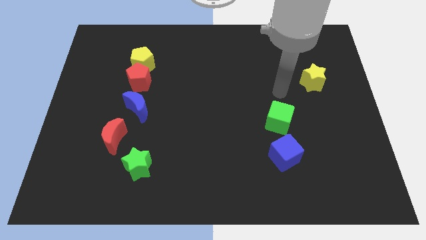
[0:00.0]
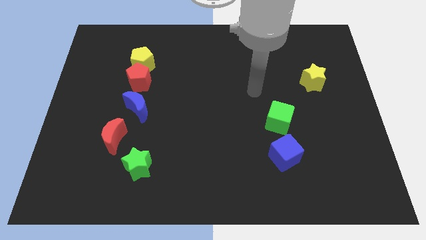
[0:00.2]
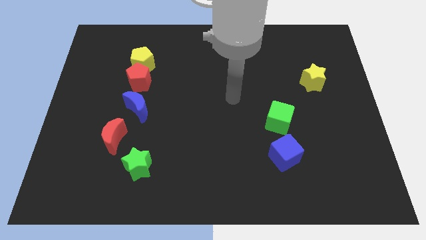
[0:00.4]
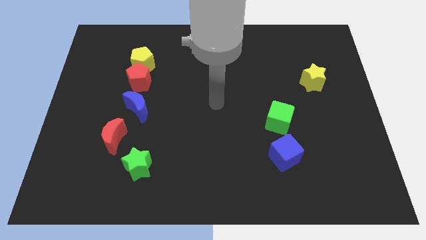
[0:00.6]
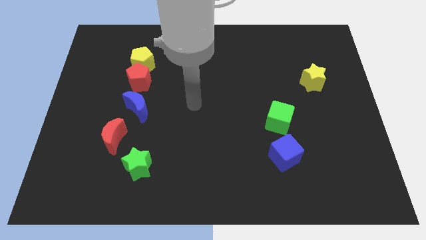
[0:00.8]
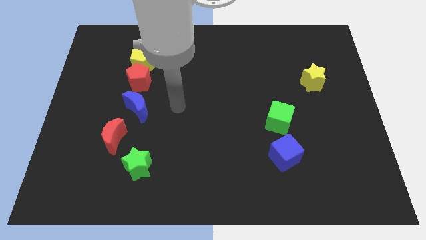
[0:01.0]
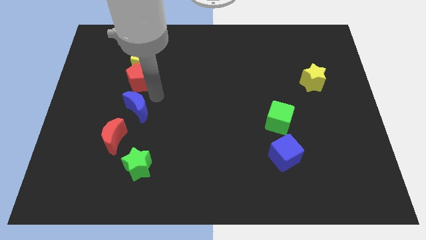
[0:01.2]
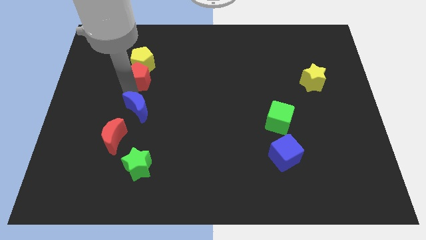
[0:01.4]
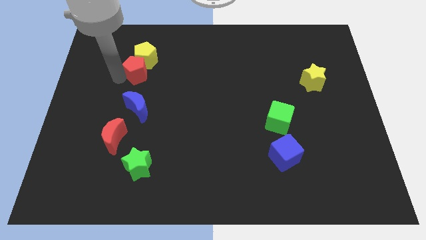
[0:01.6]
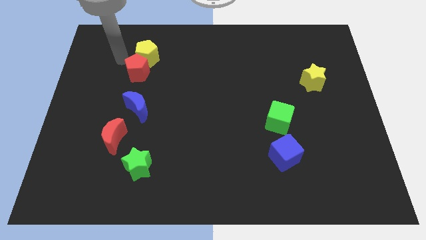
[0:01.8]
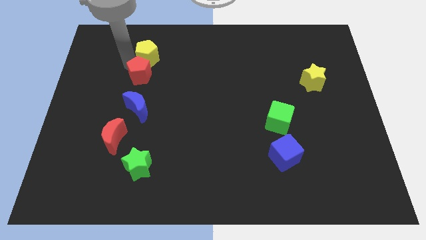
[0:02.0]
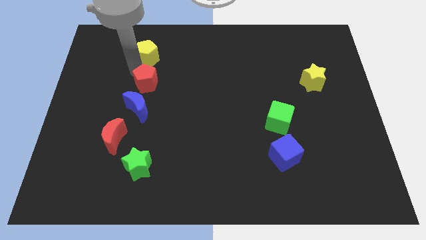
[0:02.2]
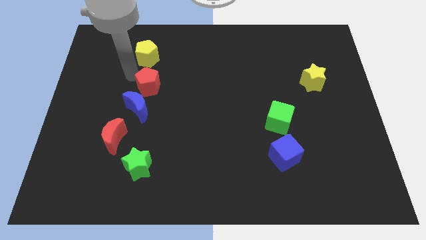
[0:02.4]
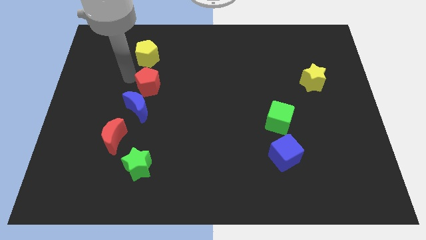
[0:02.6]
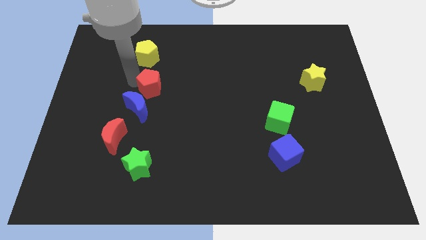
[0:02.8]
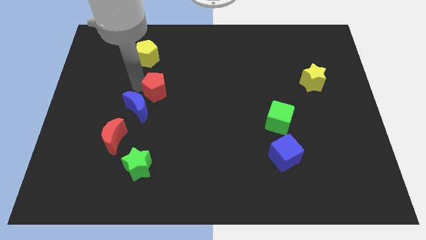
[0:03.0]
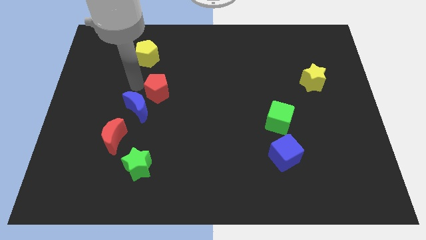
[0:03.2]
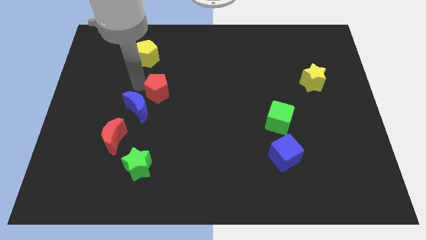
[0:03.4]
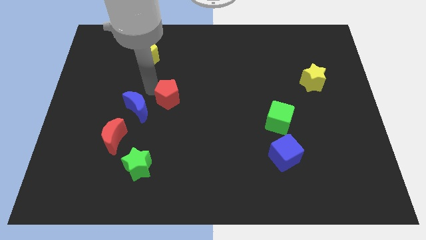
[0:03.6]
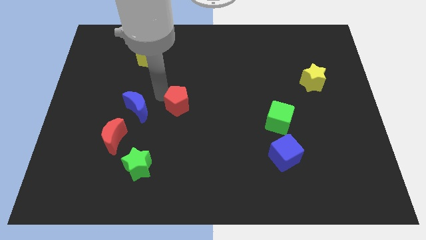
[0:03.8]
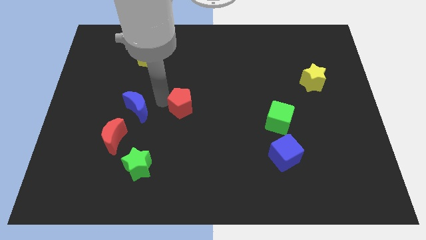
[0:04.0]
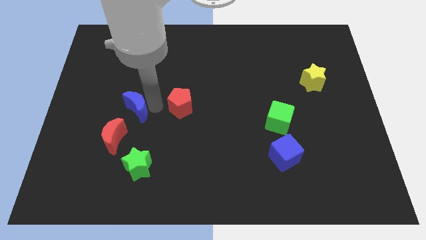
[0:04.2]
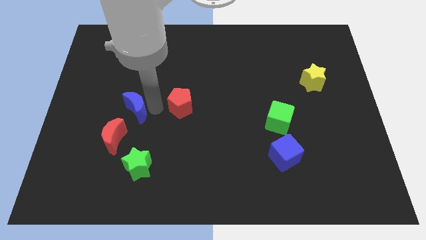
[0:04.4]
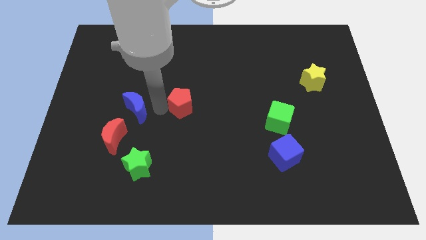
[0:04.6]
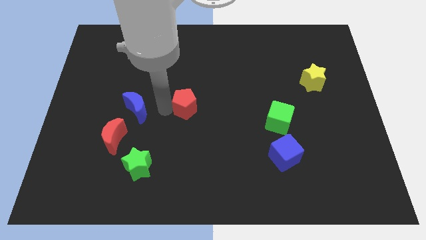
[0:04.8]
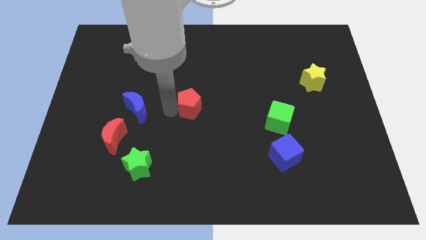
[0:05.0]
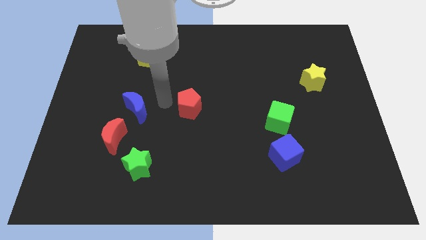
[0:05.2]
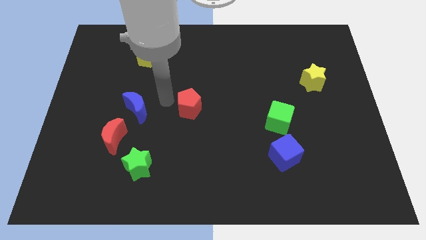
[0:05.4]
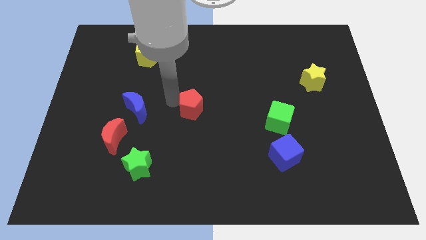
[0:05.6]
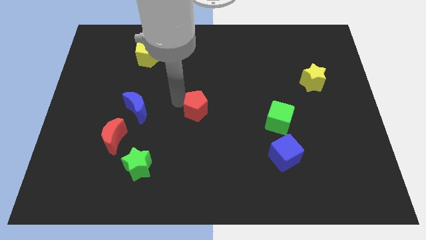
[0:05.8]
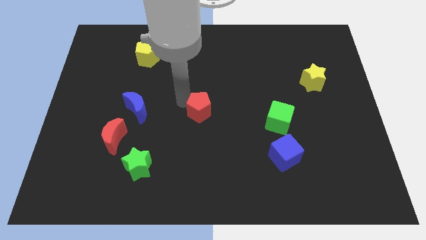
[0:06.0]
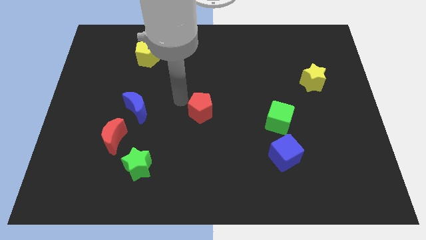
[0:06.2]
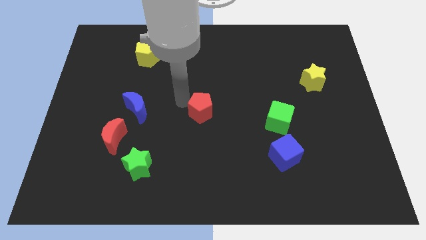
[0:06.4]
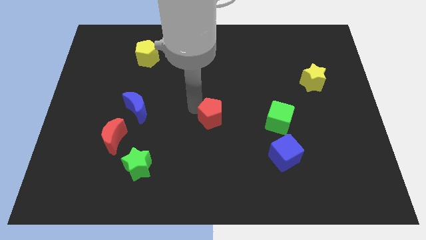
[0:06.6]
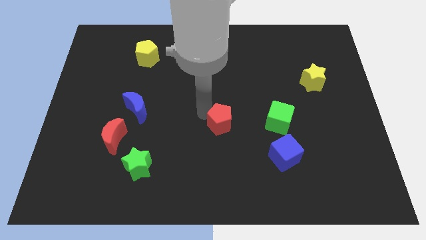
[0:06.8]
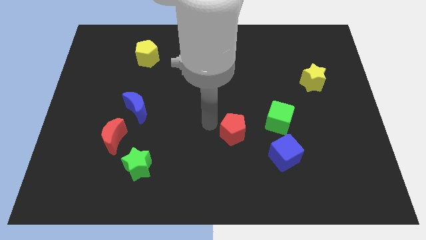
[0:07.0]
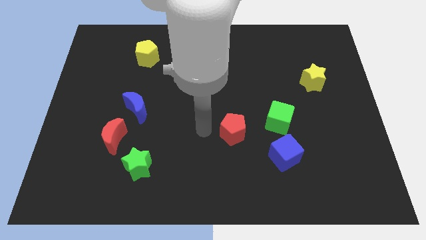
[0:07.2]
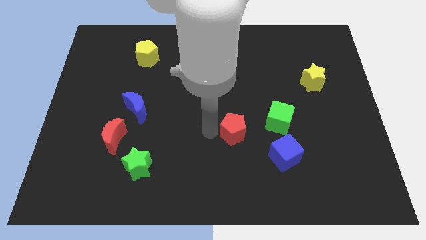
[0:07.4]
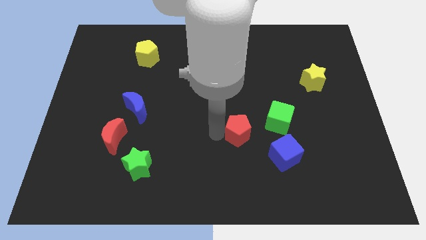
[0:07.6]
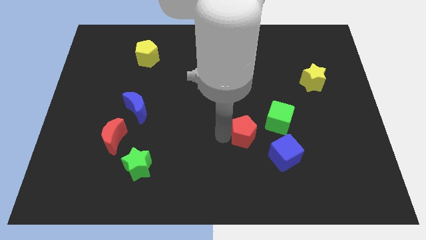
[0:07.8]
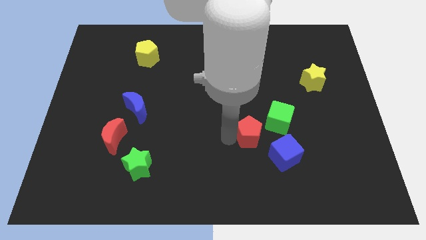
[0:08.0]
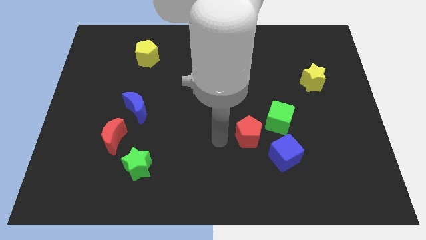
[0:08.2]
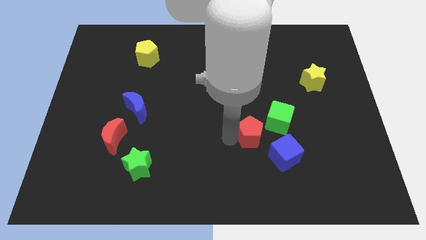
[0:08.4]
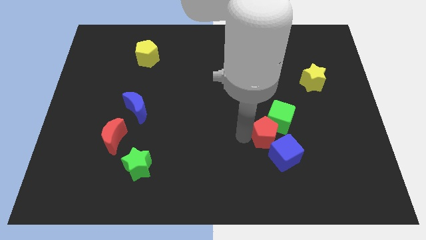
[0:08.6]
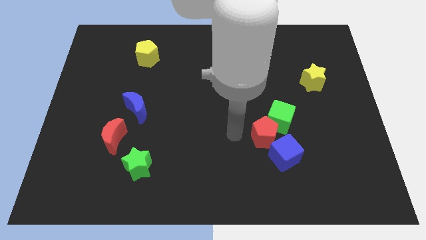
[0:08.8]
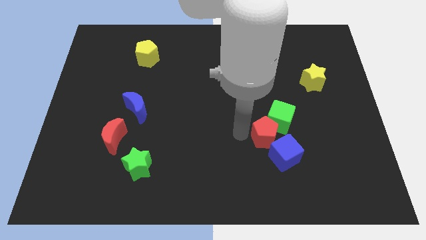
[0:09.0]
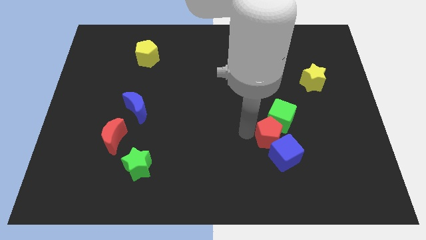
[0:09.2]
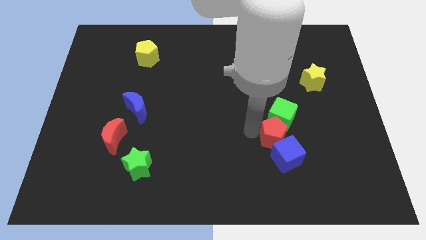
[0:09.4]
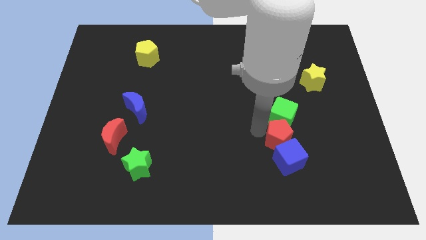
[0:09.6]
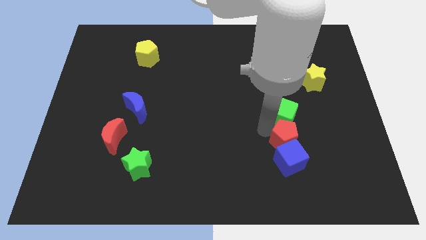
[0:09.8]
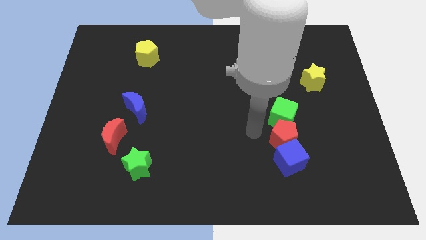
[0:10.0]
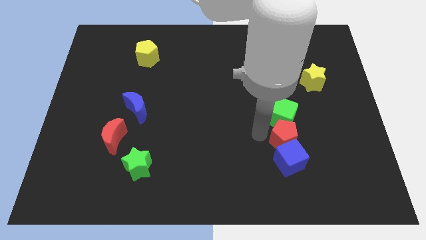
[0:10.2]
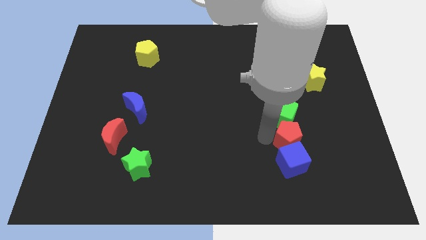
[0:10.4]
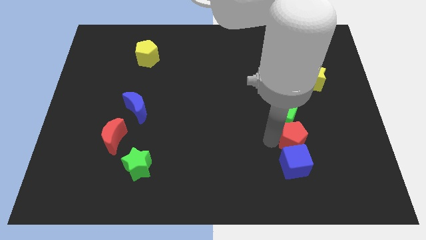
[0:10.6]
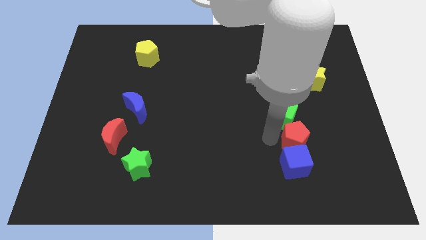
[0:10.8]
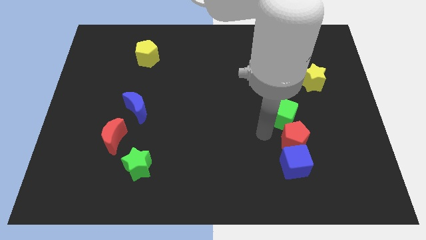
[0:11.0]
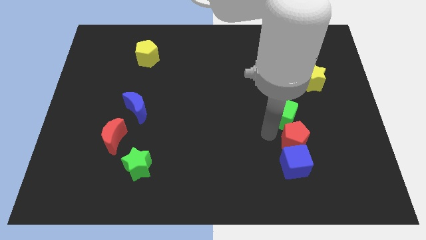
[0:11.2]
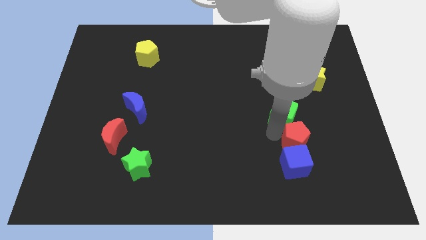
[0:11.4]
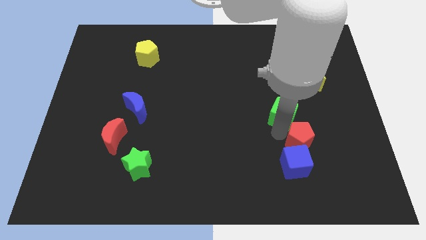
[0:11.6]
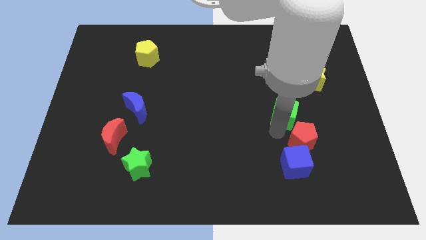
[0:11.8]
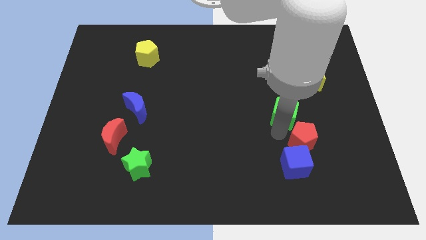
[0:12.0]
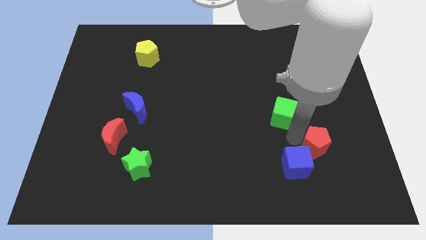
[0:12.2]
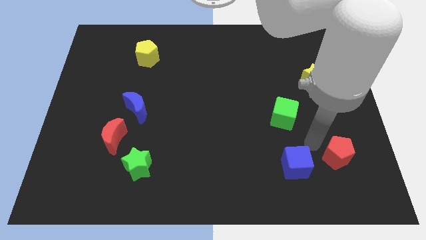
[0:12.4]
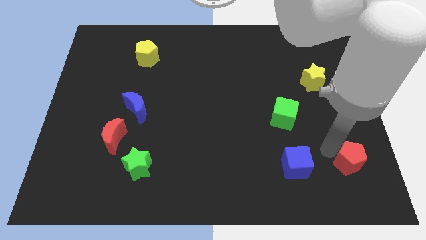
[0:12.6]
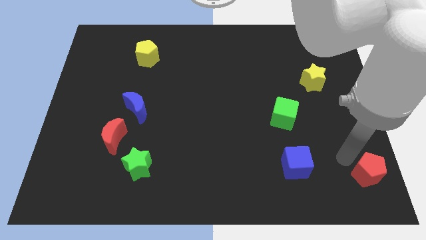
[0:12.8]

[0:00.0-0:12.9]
put the red pentagon to the lower right corner
